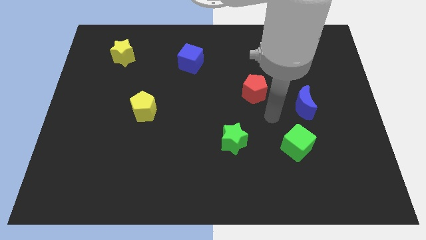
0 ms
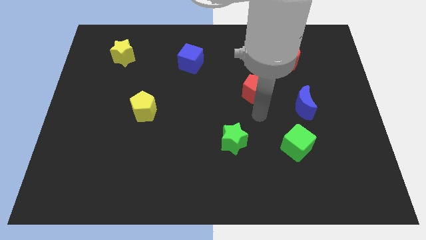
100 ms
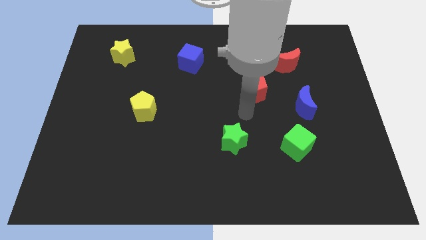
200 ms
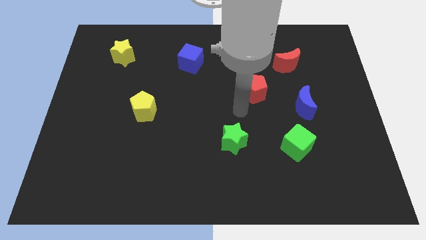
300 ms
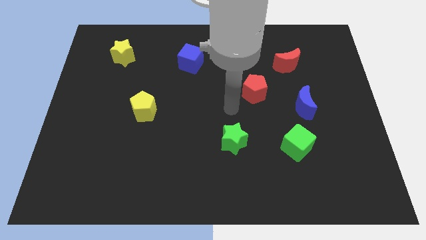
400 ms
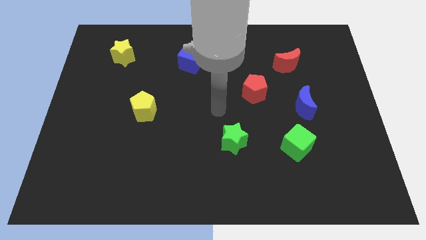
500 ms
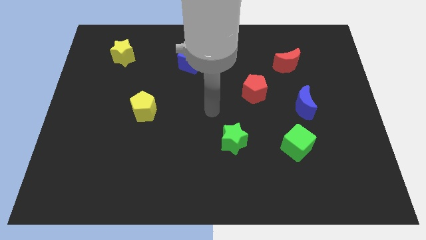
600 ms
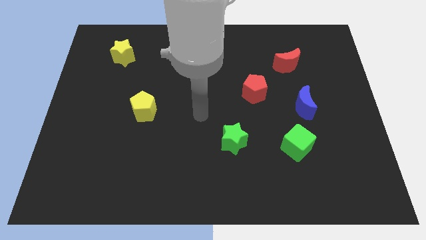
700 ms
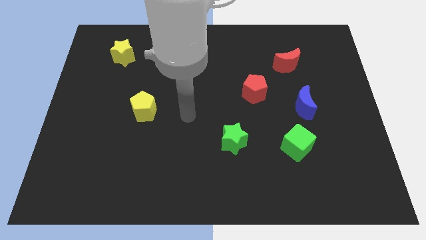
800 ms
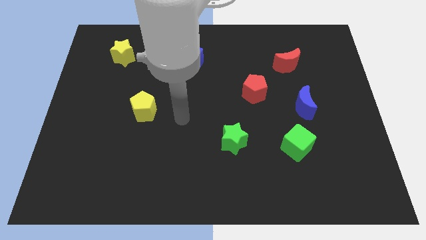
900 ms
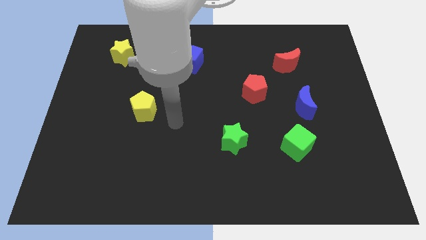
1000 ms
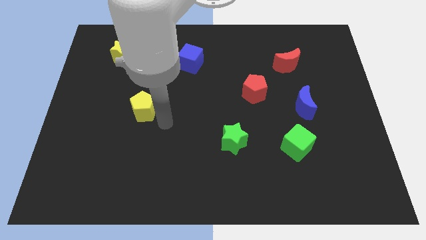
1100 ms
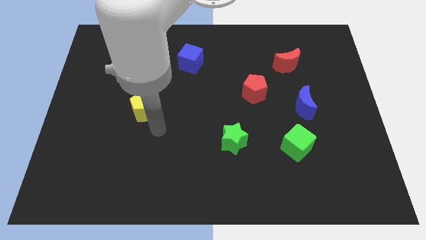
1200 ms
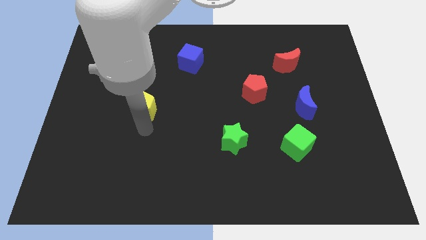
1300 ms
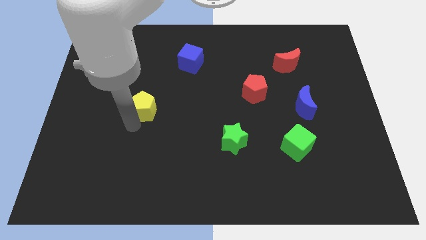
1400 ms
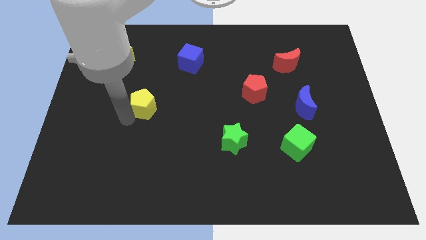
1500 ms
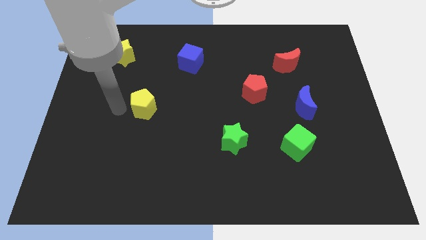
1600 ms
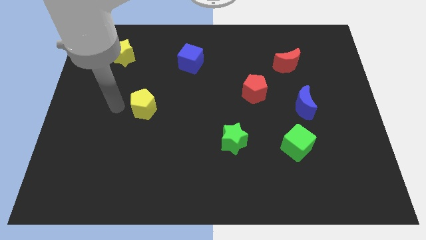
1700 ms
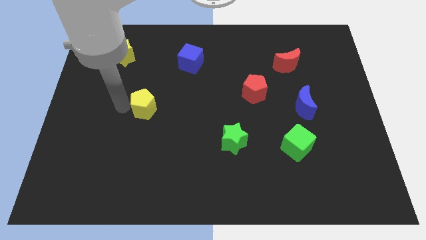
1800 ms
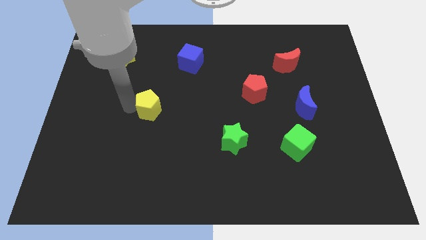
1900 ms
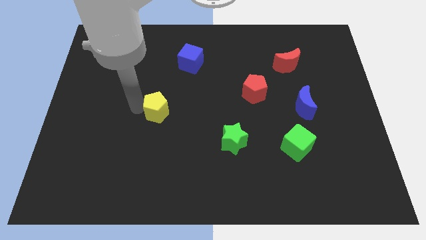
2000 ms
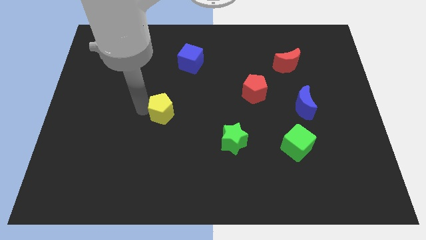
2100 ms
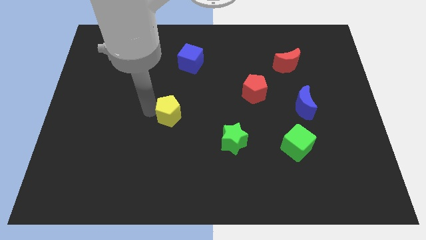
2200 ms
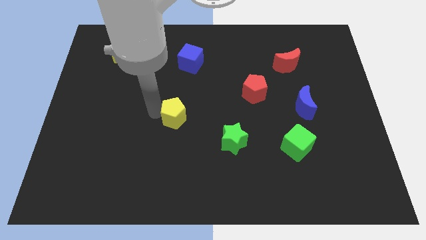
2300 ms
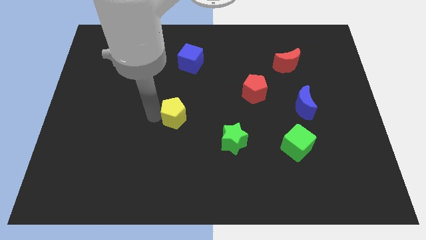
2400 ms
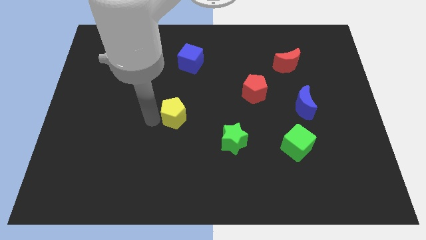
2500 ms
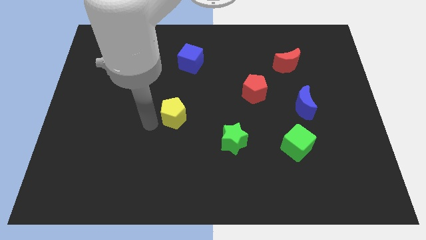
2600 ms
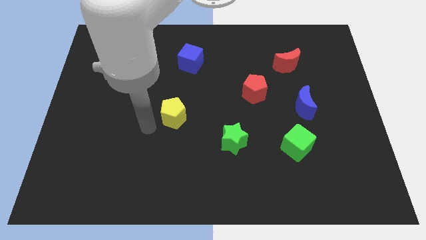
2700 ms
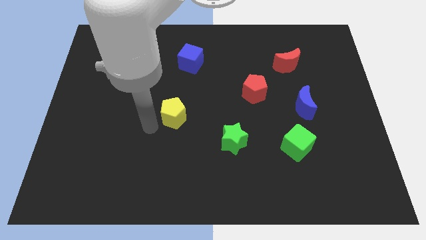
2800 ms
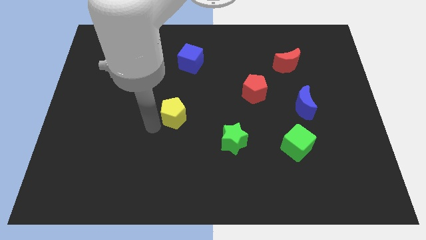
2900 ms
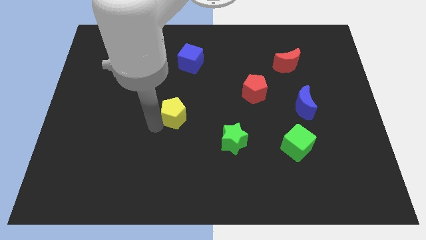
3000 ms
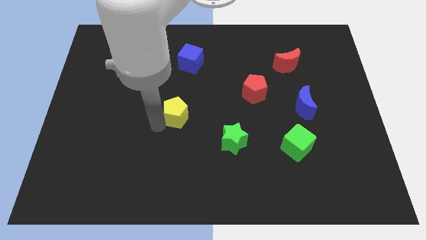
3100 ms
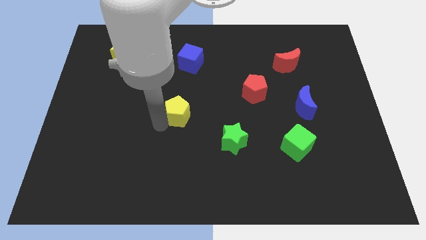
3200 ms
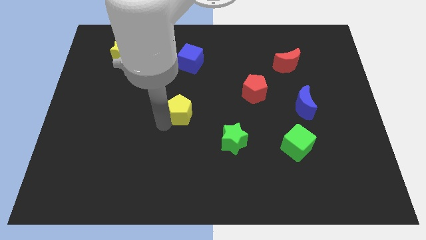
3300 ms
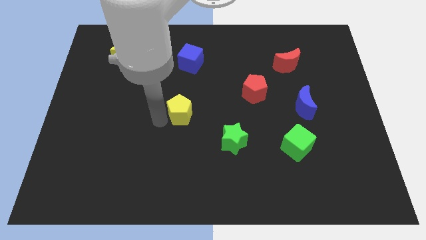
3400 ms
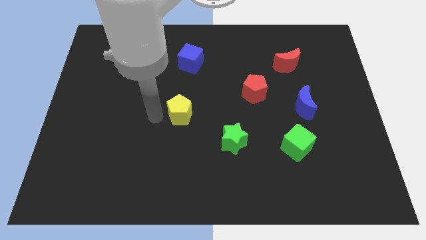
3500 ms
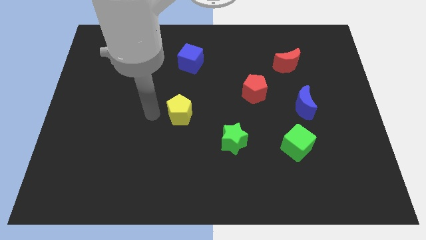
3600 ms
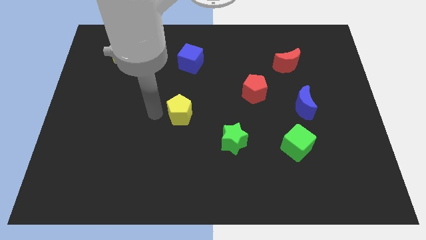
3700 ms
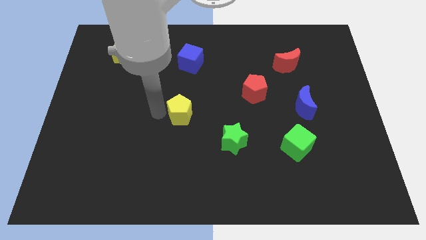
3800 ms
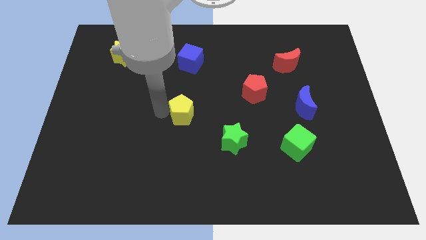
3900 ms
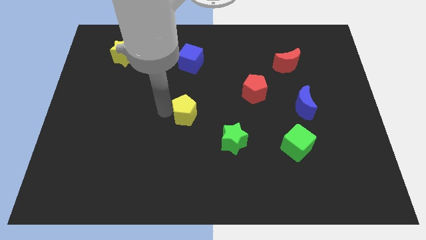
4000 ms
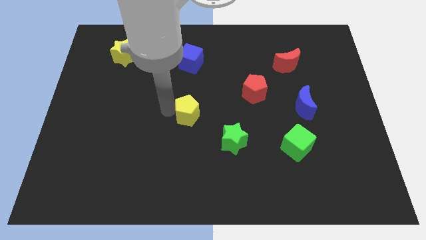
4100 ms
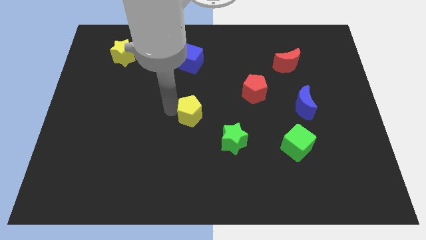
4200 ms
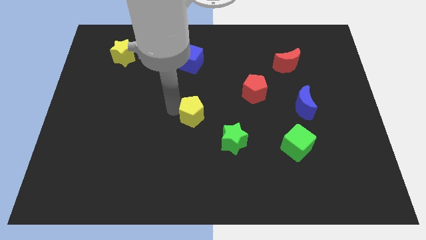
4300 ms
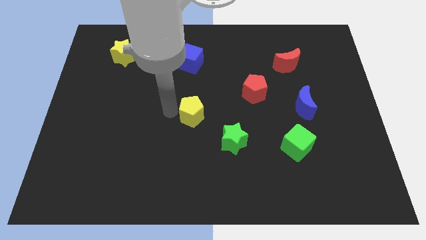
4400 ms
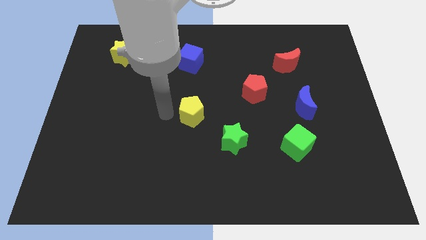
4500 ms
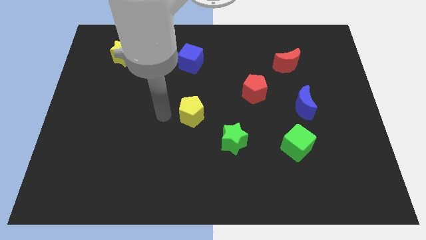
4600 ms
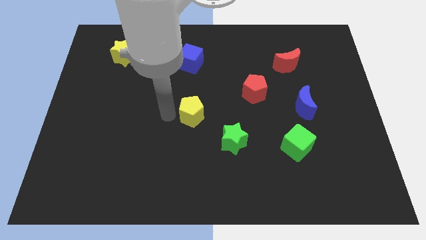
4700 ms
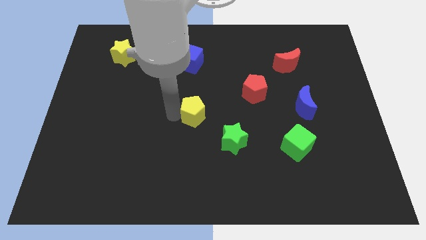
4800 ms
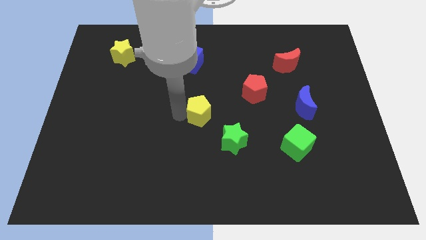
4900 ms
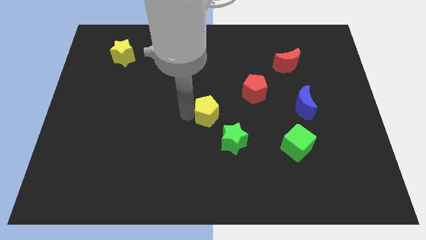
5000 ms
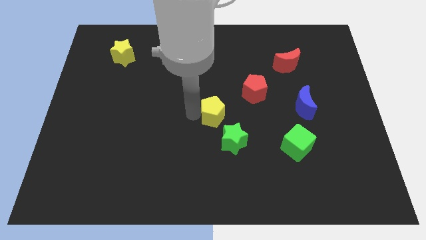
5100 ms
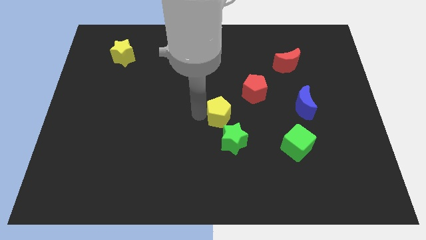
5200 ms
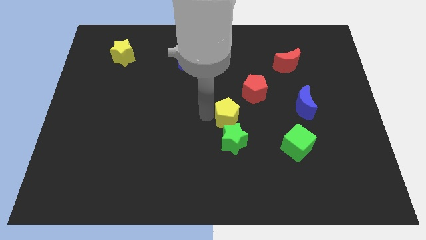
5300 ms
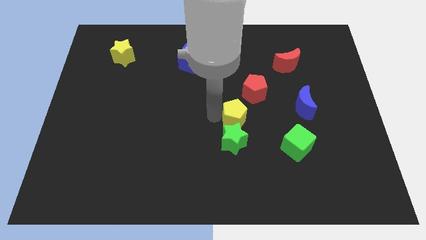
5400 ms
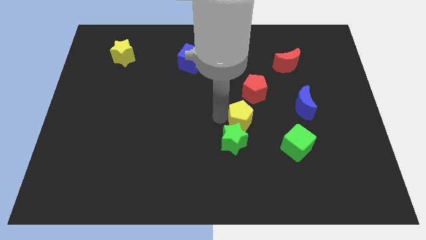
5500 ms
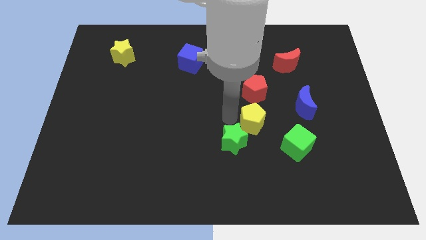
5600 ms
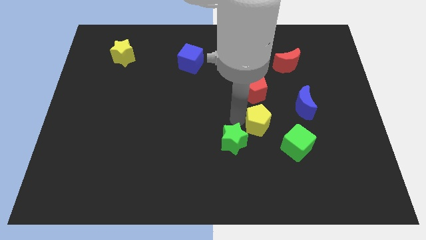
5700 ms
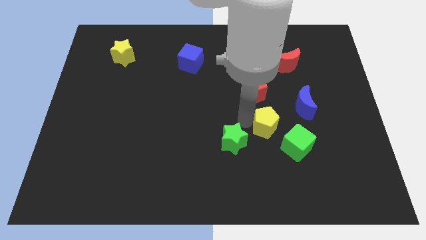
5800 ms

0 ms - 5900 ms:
slide the yellow pentagon to the bottom left side of the blue moon

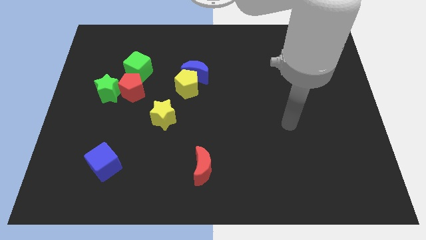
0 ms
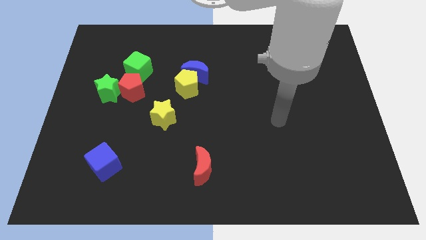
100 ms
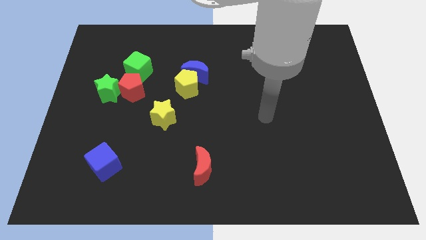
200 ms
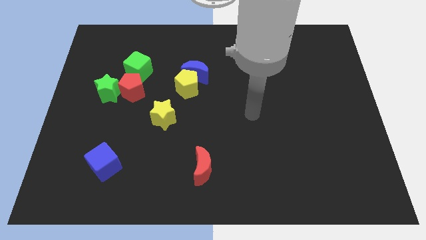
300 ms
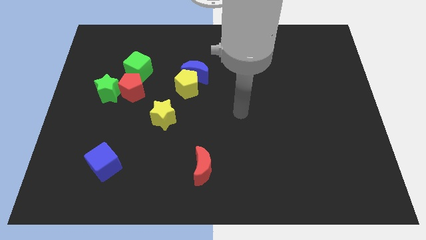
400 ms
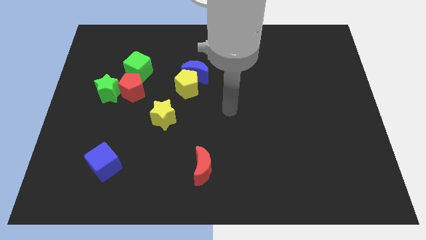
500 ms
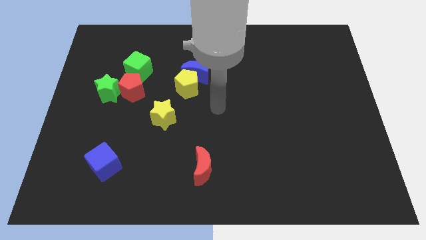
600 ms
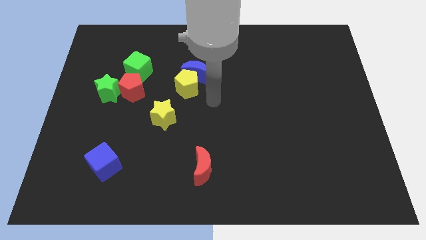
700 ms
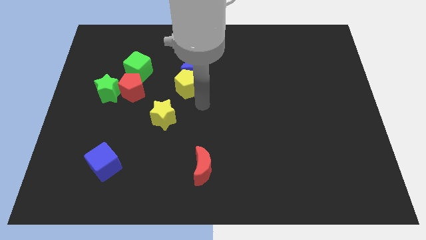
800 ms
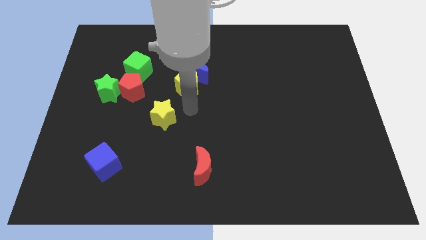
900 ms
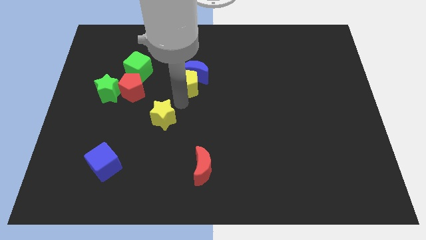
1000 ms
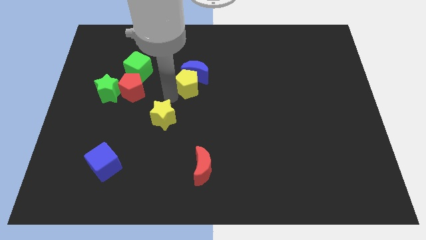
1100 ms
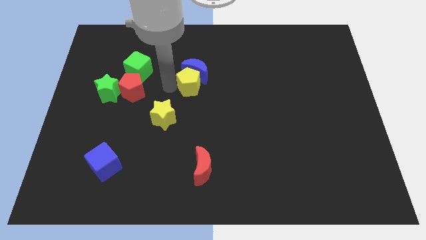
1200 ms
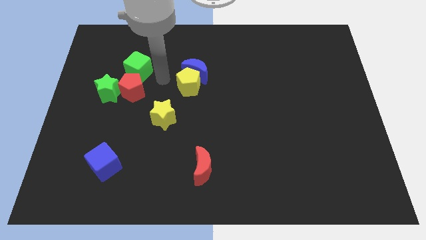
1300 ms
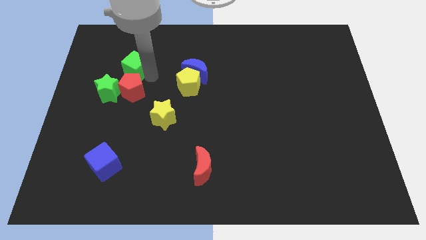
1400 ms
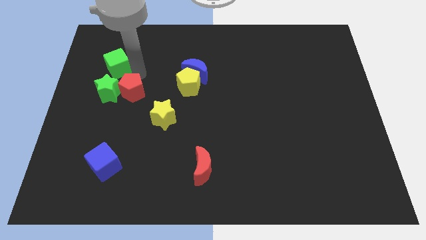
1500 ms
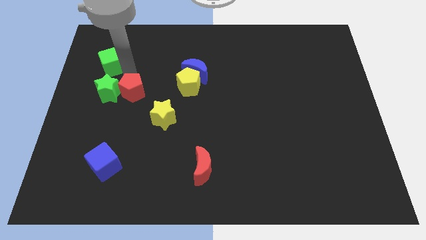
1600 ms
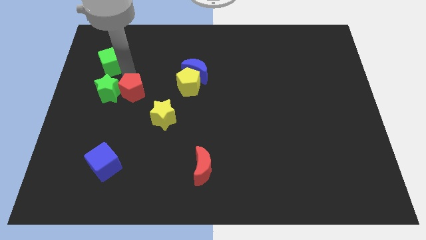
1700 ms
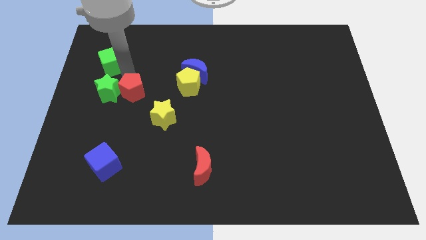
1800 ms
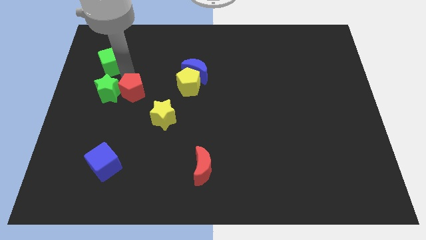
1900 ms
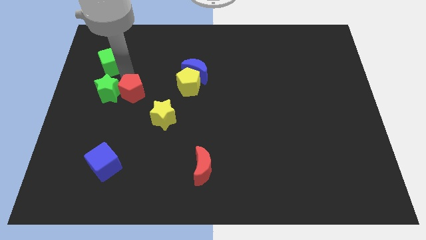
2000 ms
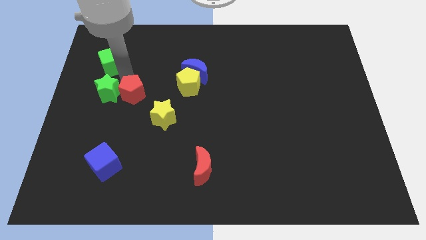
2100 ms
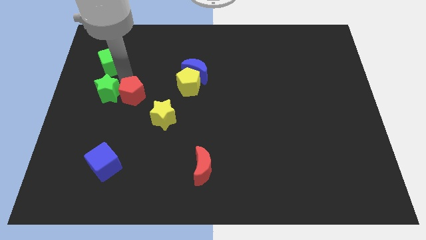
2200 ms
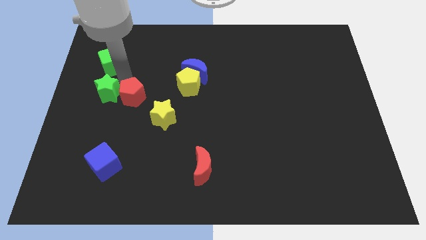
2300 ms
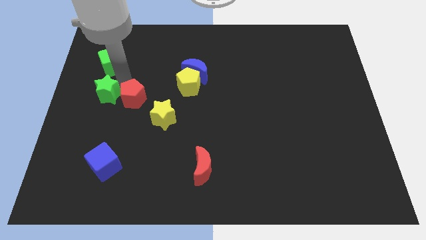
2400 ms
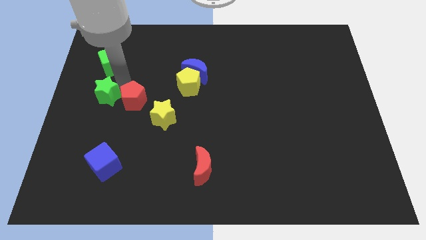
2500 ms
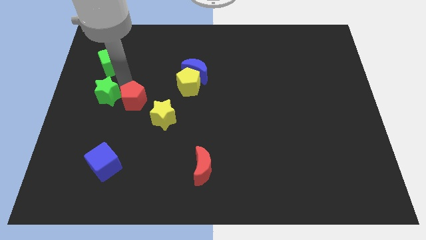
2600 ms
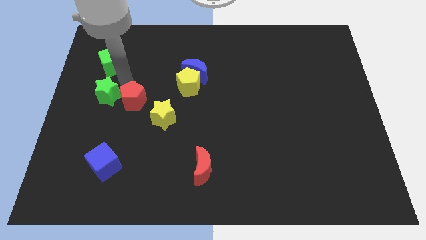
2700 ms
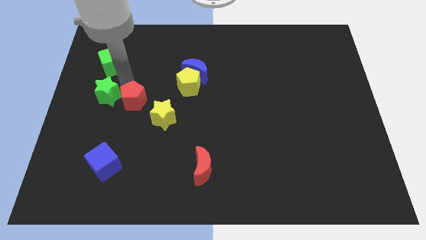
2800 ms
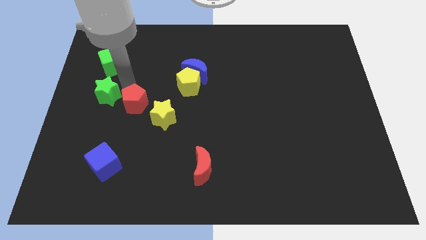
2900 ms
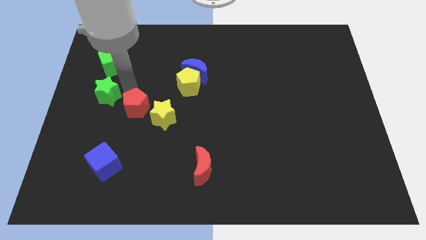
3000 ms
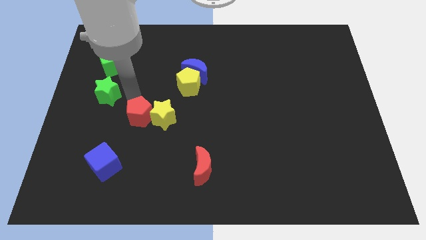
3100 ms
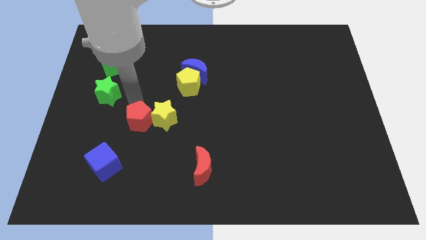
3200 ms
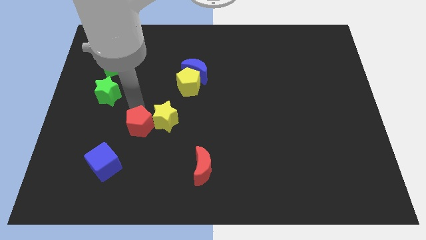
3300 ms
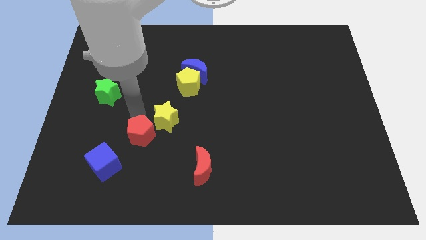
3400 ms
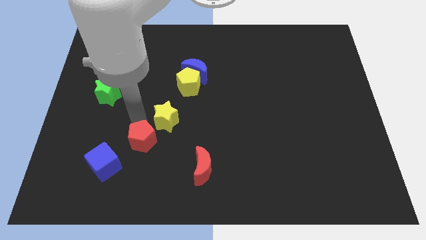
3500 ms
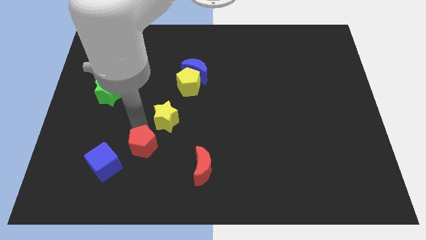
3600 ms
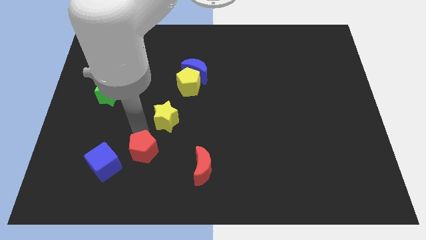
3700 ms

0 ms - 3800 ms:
put the red pentagon left of the red moon
